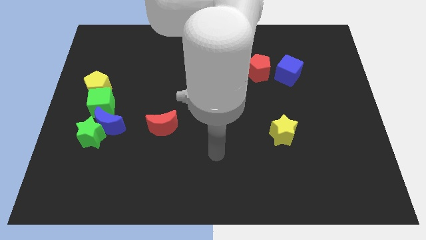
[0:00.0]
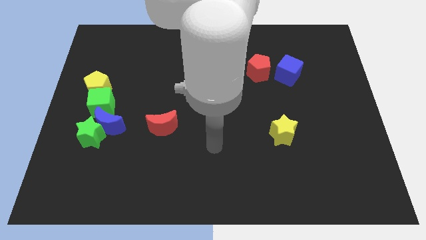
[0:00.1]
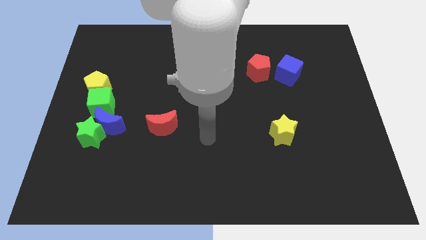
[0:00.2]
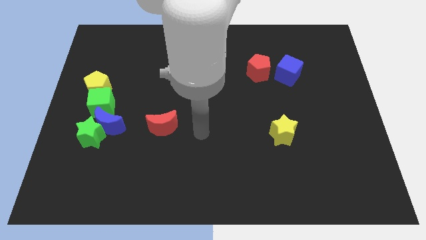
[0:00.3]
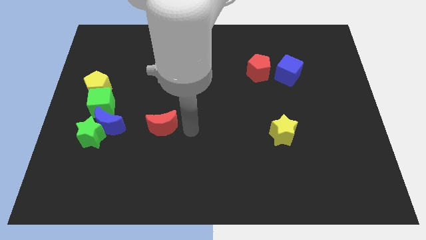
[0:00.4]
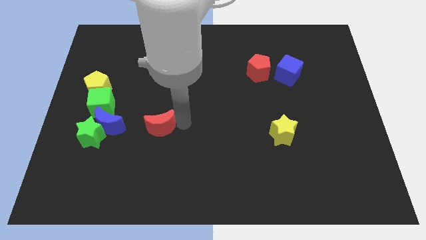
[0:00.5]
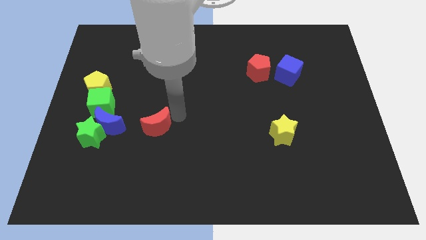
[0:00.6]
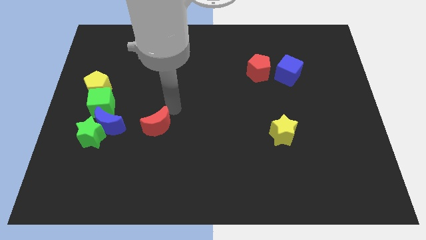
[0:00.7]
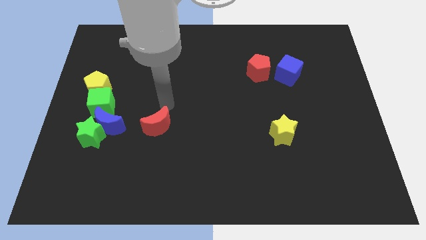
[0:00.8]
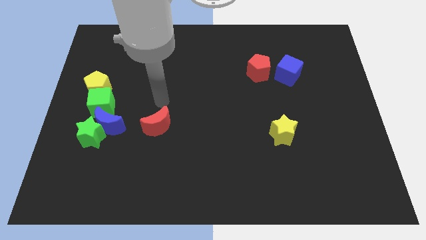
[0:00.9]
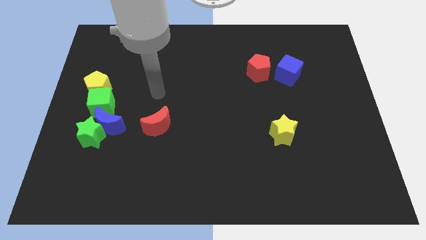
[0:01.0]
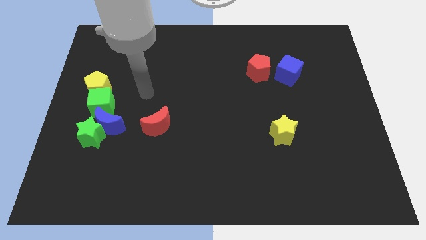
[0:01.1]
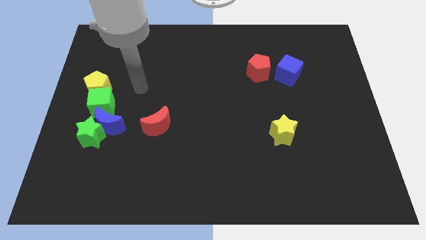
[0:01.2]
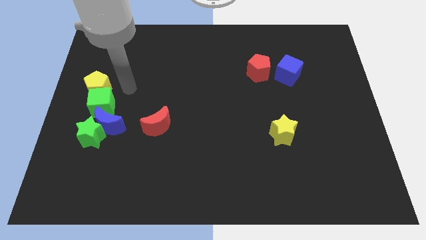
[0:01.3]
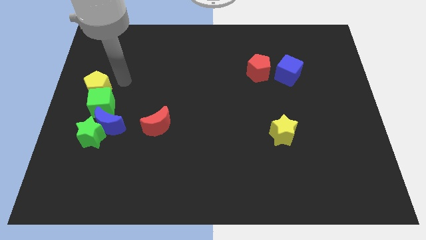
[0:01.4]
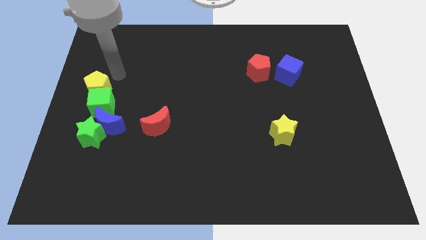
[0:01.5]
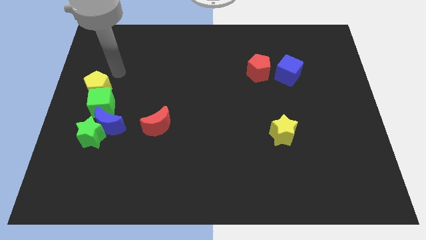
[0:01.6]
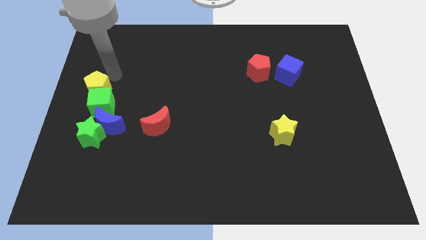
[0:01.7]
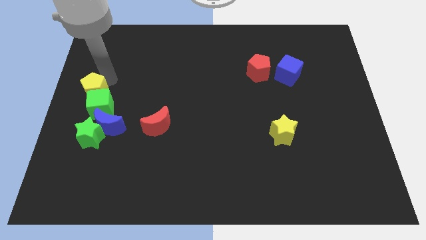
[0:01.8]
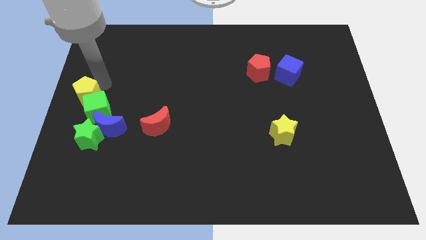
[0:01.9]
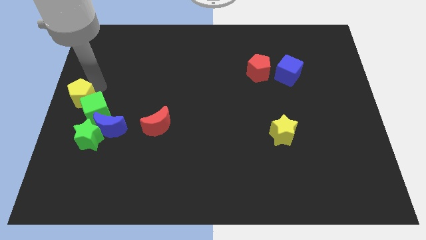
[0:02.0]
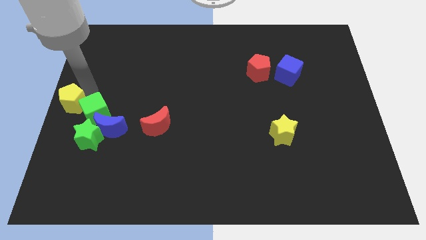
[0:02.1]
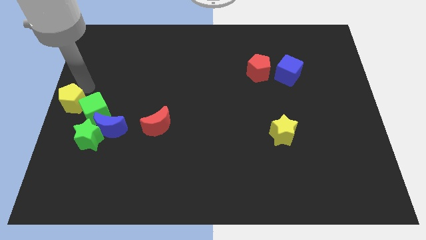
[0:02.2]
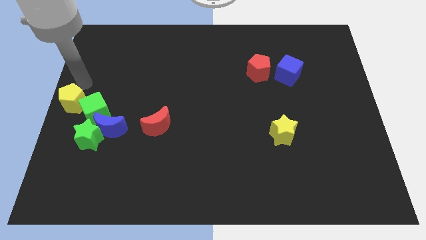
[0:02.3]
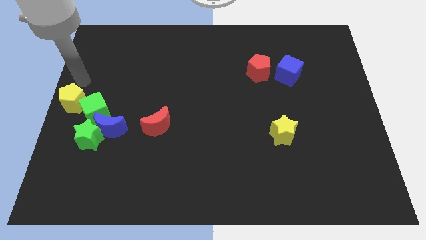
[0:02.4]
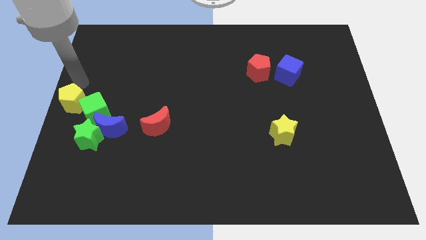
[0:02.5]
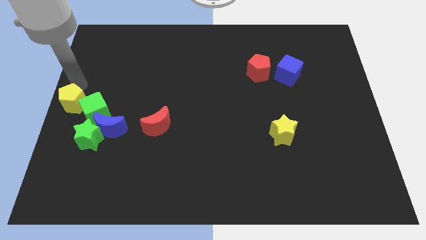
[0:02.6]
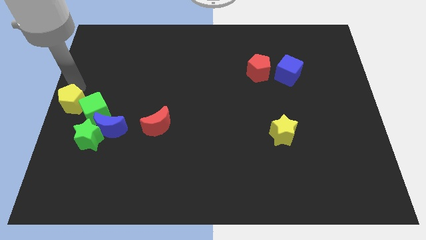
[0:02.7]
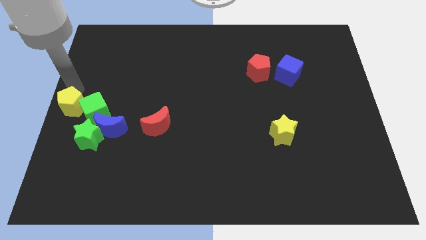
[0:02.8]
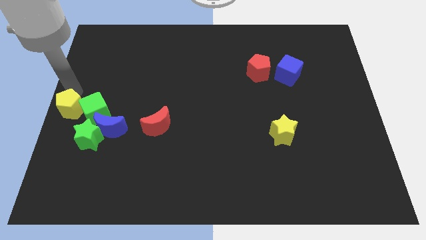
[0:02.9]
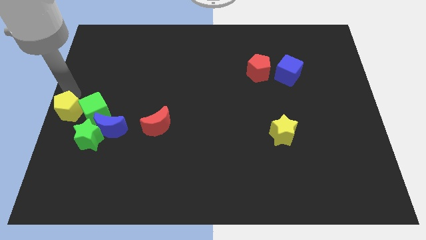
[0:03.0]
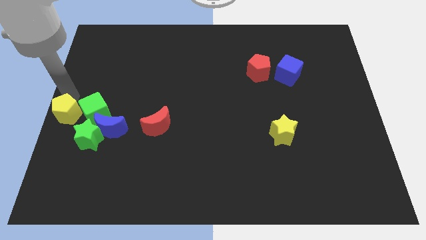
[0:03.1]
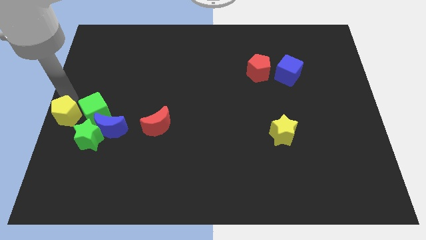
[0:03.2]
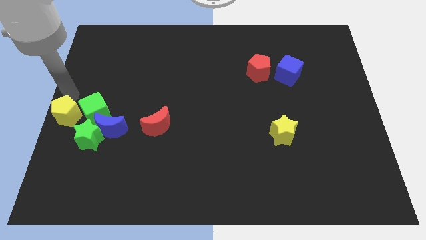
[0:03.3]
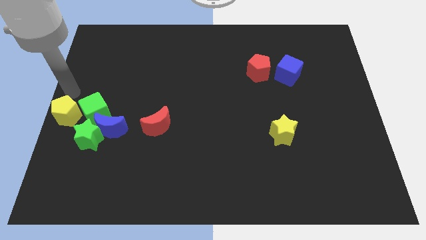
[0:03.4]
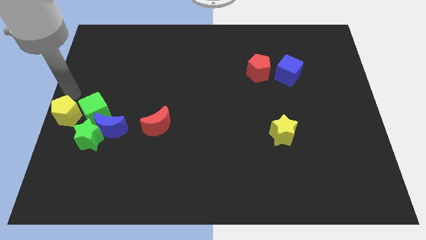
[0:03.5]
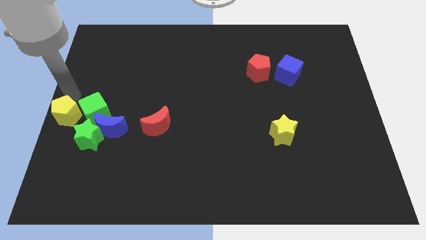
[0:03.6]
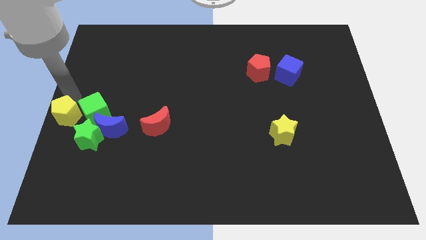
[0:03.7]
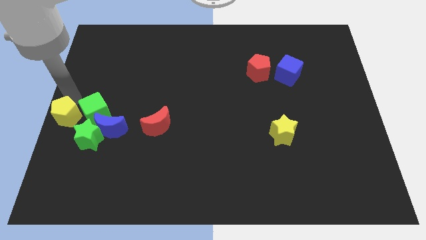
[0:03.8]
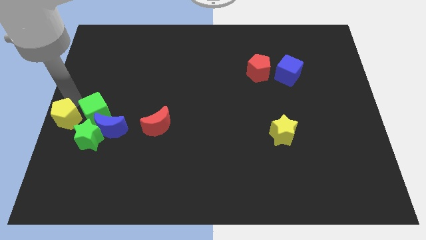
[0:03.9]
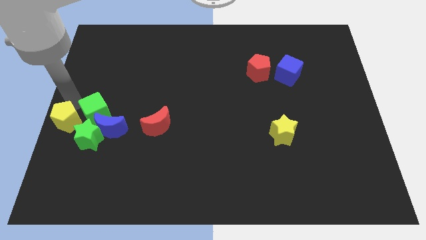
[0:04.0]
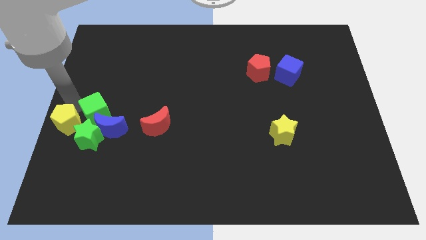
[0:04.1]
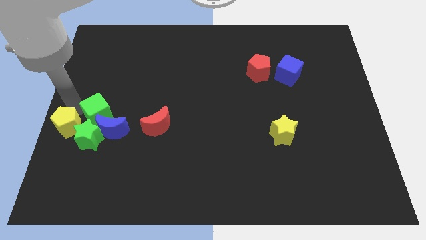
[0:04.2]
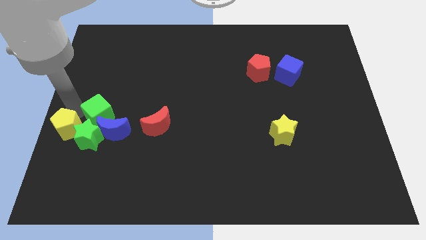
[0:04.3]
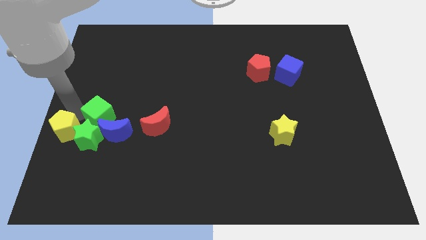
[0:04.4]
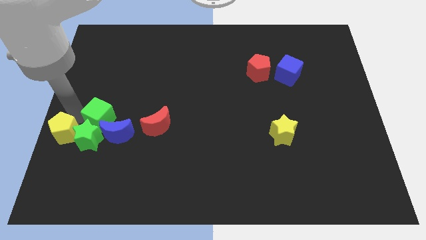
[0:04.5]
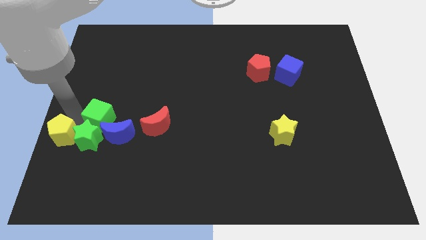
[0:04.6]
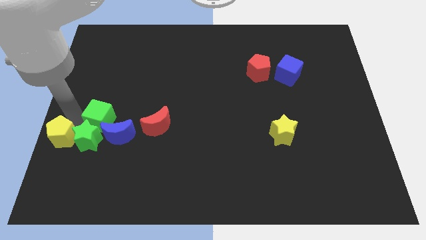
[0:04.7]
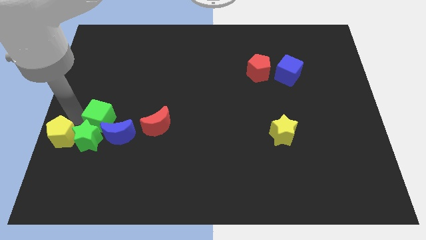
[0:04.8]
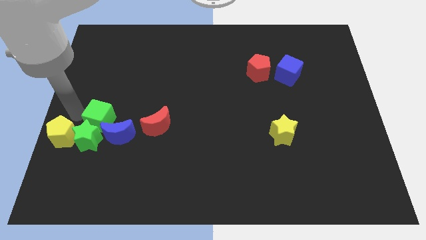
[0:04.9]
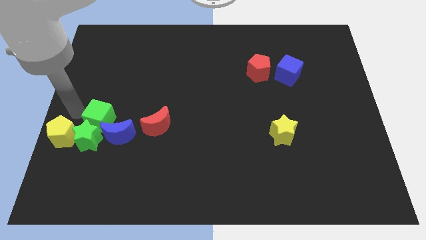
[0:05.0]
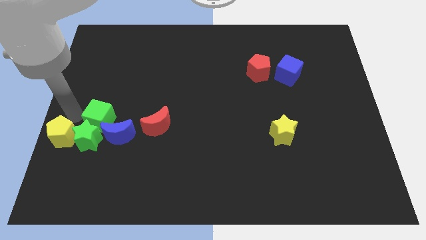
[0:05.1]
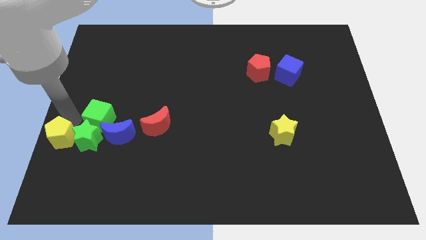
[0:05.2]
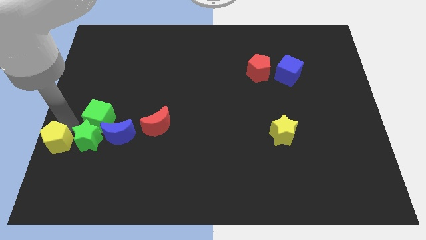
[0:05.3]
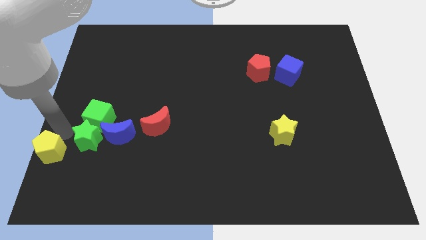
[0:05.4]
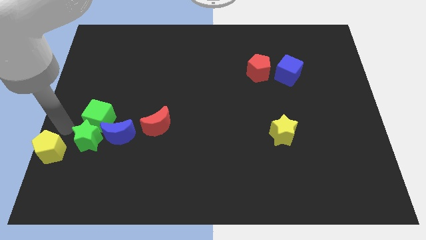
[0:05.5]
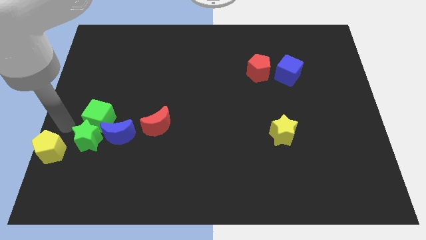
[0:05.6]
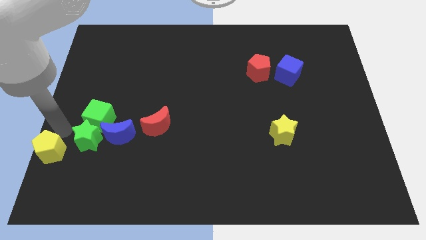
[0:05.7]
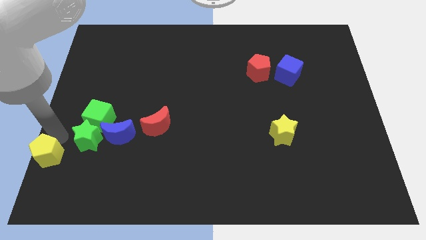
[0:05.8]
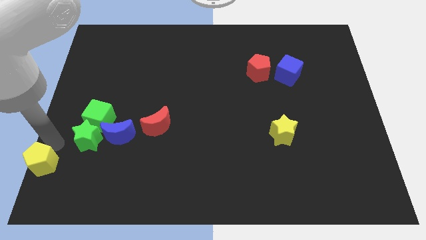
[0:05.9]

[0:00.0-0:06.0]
push the yellow pentagon to the bottom left of the board
